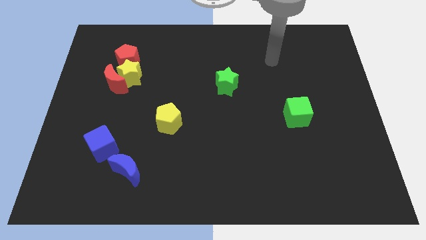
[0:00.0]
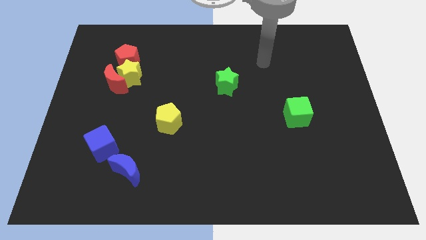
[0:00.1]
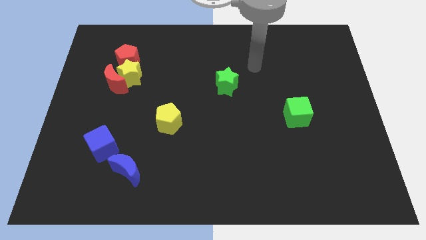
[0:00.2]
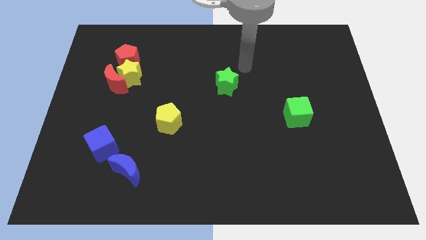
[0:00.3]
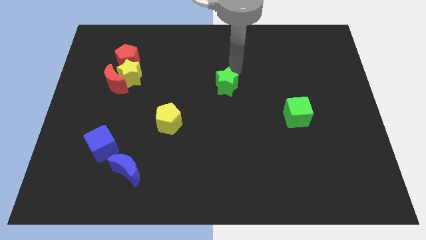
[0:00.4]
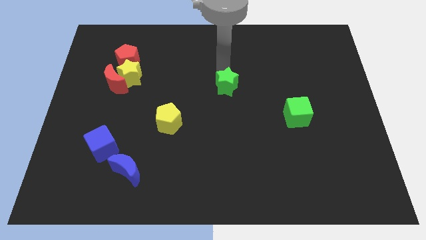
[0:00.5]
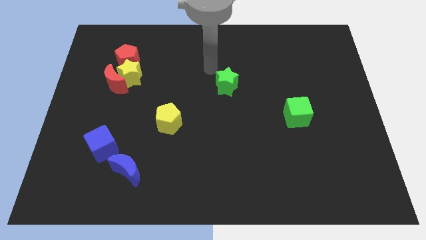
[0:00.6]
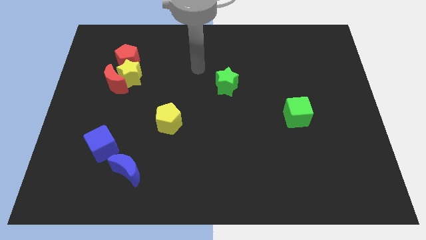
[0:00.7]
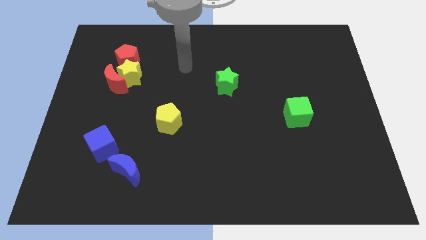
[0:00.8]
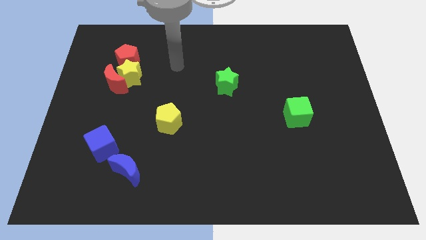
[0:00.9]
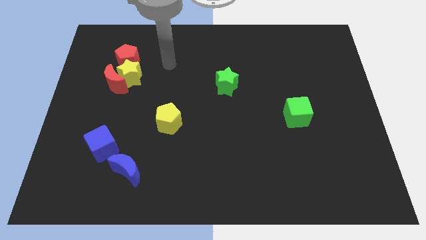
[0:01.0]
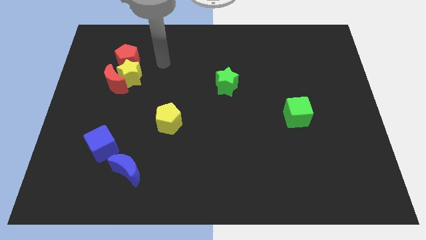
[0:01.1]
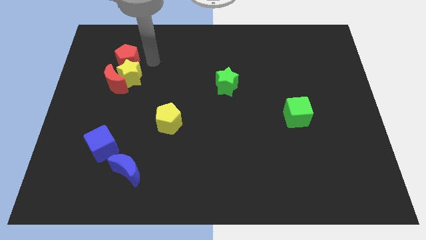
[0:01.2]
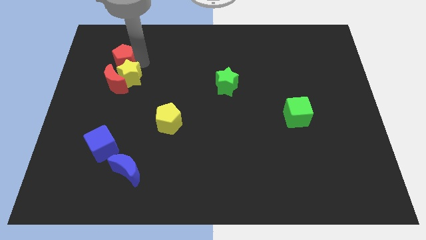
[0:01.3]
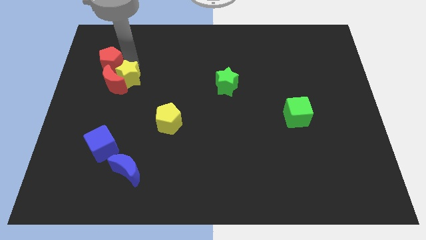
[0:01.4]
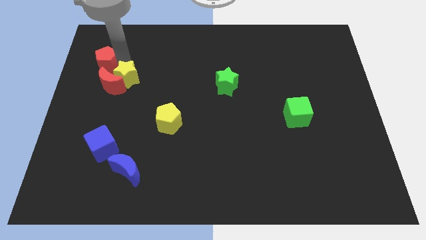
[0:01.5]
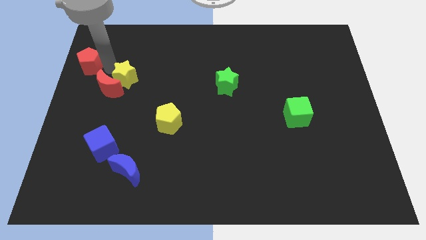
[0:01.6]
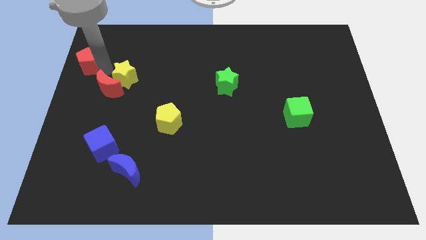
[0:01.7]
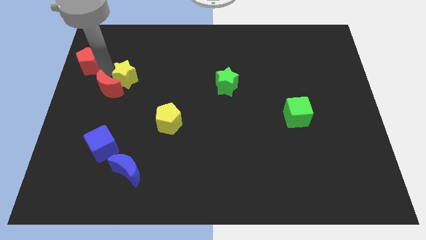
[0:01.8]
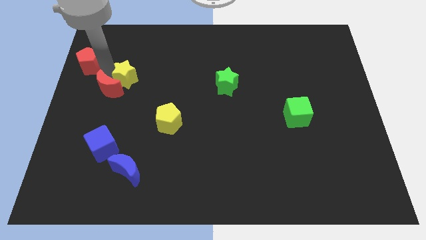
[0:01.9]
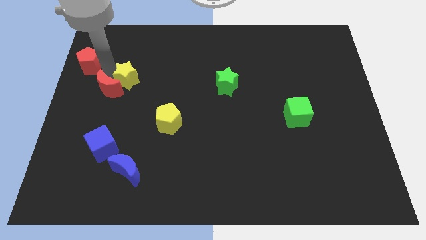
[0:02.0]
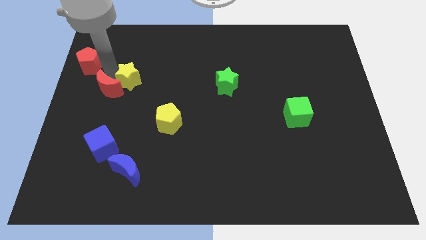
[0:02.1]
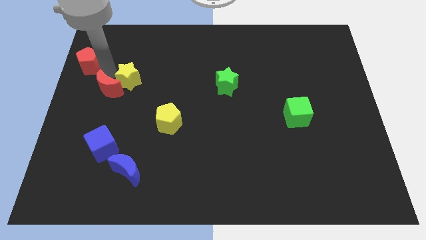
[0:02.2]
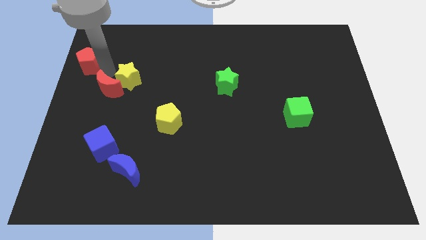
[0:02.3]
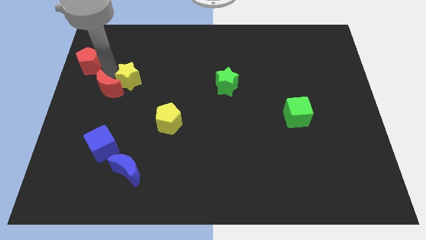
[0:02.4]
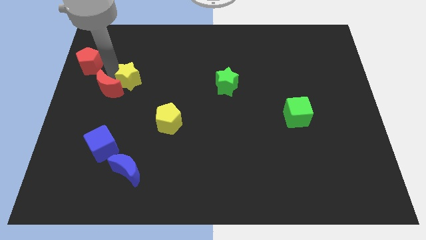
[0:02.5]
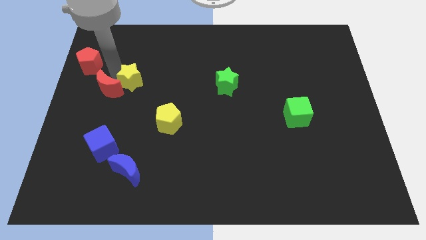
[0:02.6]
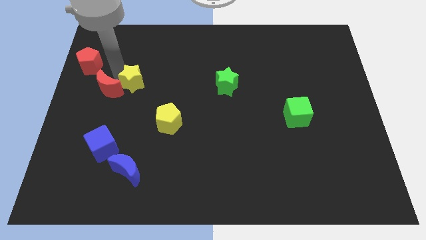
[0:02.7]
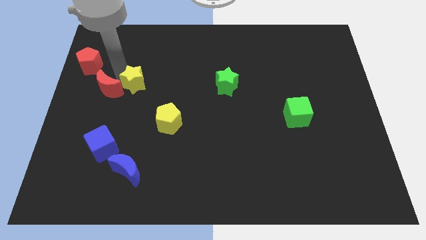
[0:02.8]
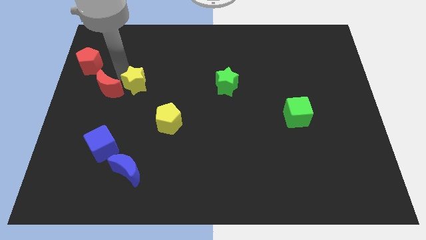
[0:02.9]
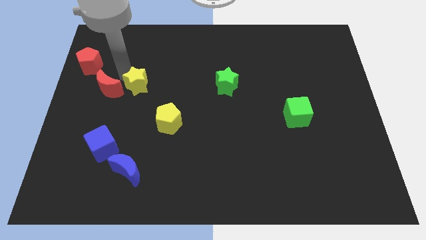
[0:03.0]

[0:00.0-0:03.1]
separate the yellow star from the red moon and red pentagon

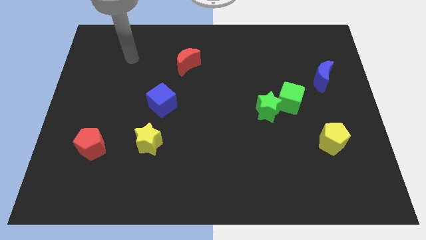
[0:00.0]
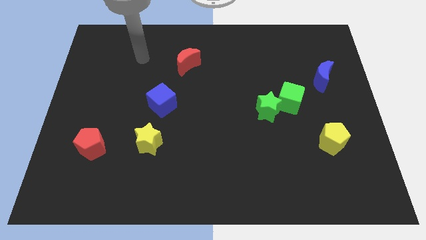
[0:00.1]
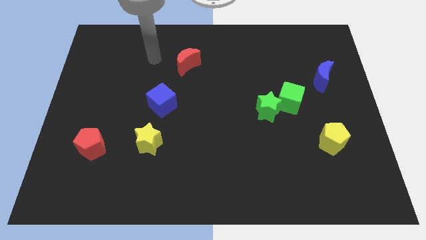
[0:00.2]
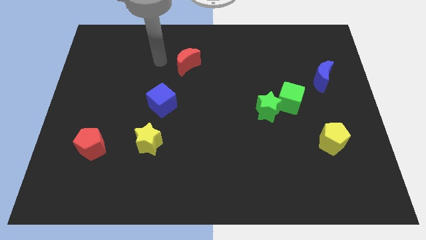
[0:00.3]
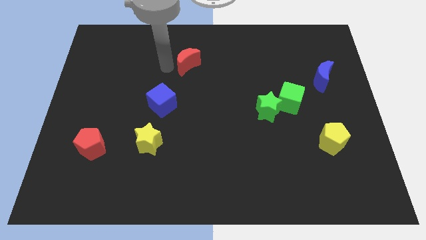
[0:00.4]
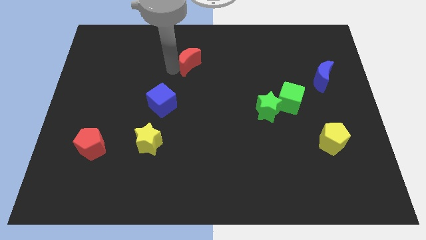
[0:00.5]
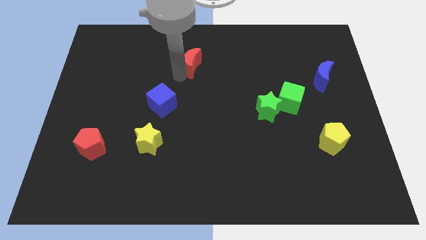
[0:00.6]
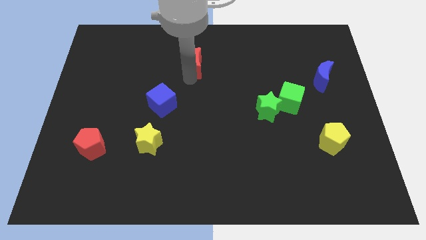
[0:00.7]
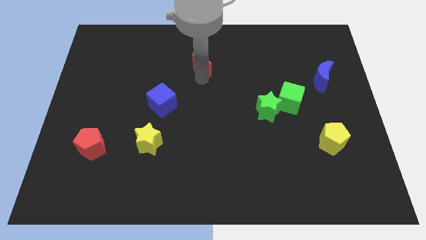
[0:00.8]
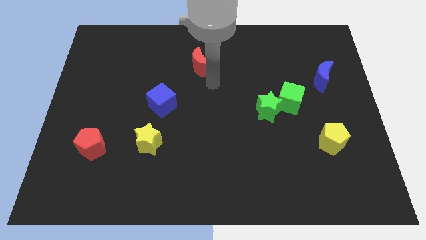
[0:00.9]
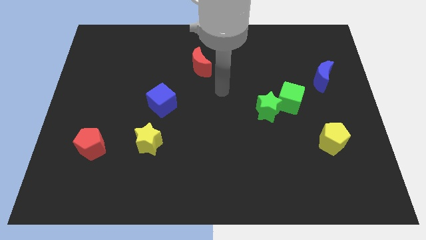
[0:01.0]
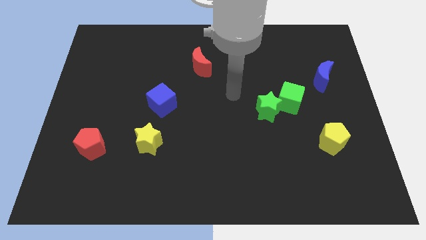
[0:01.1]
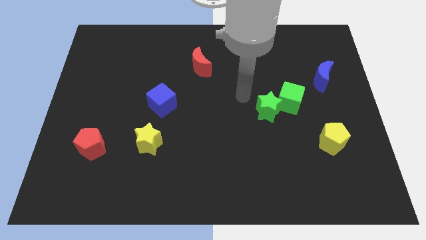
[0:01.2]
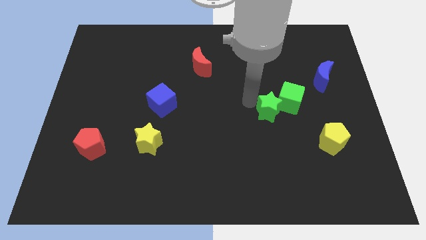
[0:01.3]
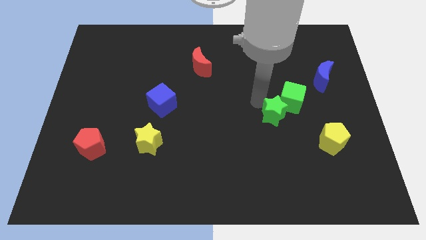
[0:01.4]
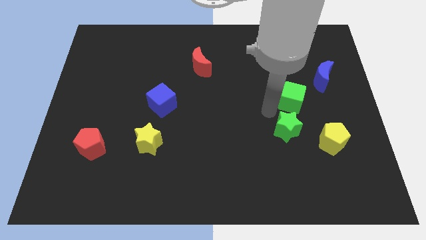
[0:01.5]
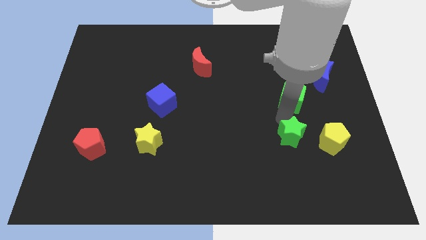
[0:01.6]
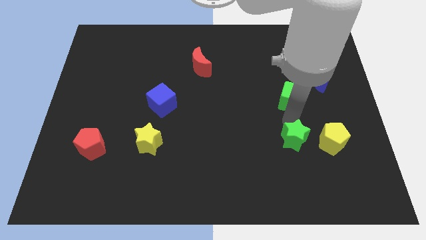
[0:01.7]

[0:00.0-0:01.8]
separate the green cube from the green star

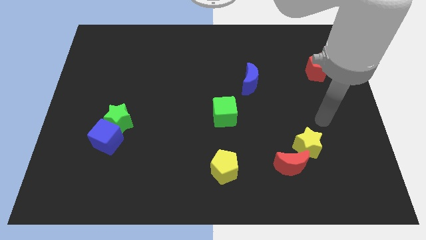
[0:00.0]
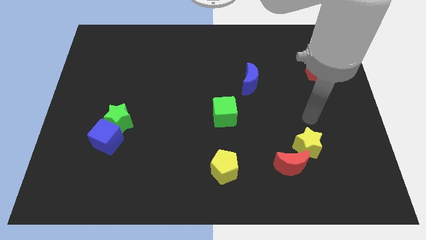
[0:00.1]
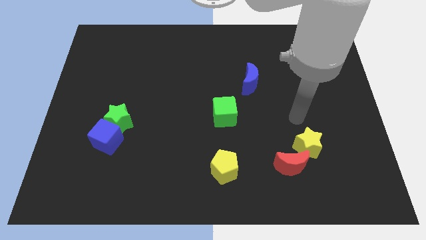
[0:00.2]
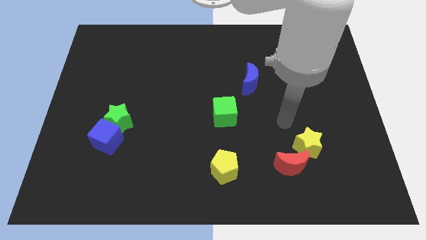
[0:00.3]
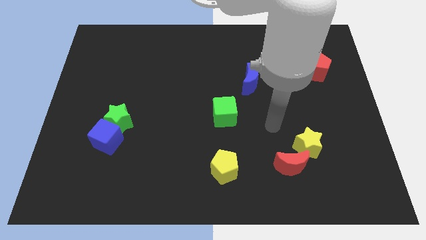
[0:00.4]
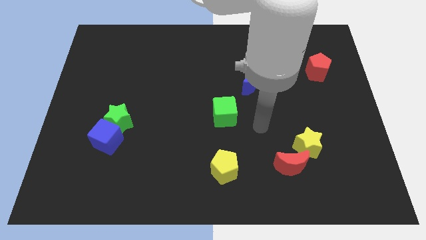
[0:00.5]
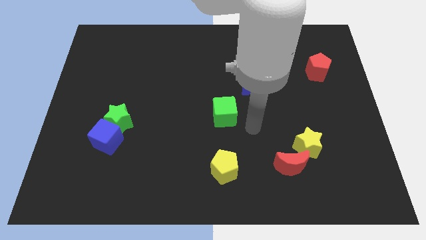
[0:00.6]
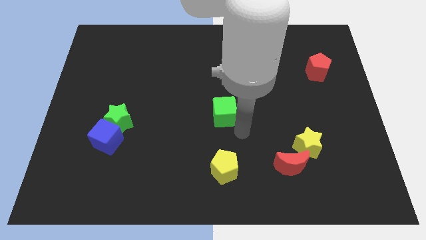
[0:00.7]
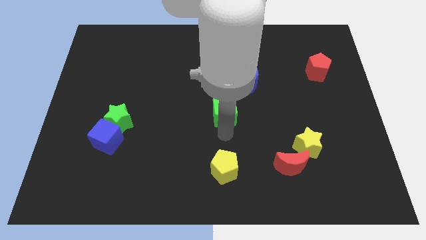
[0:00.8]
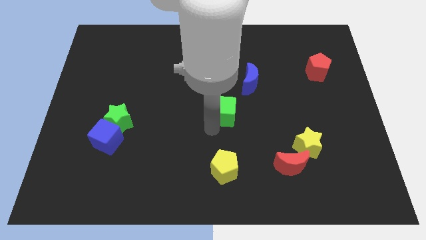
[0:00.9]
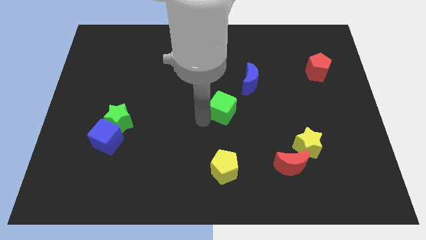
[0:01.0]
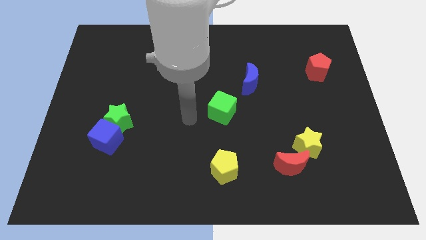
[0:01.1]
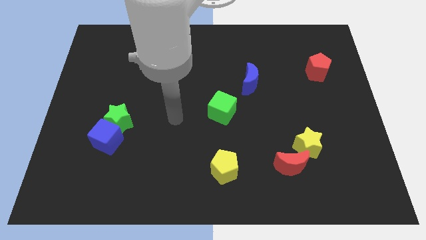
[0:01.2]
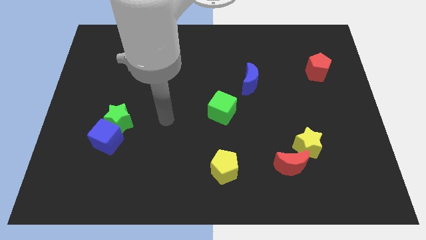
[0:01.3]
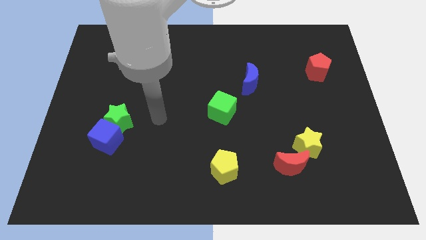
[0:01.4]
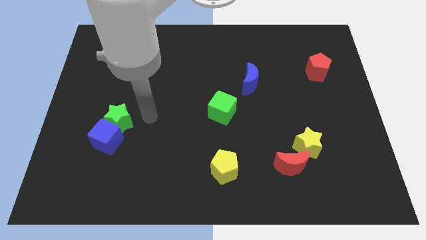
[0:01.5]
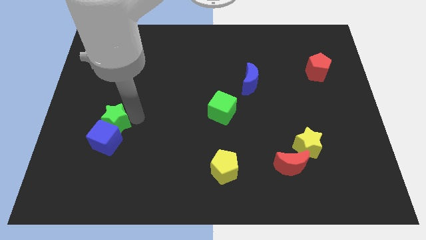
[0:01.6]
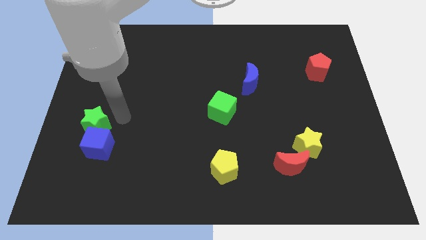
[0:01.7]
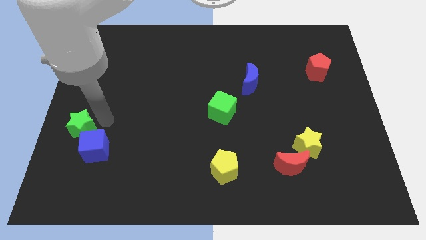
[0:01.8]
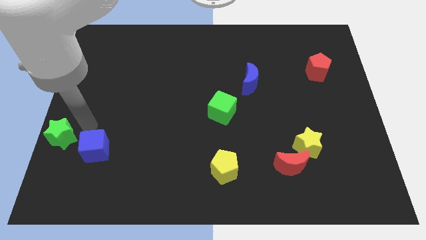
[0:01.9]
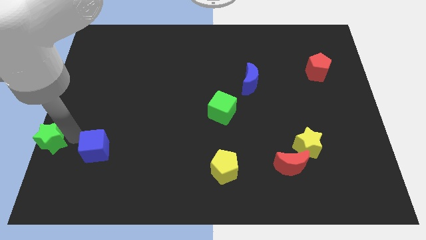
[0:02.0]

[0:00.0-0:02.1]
move the blue cube away from the green star

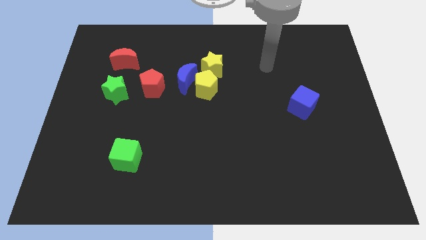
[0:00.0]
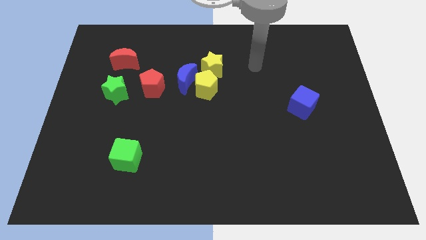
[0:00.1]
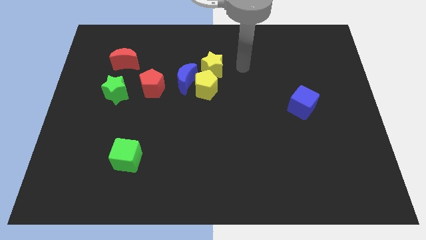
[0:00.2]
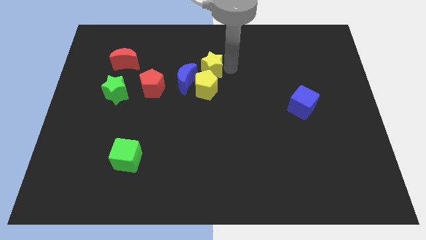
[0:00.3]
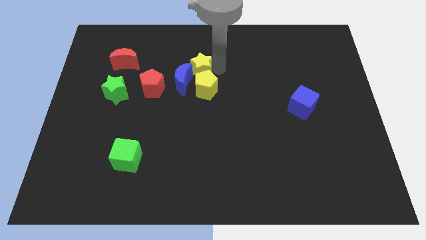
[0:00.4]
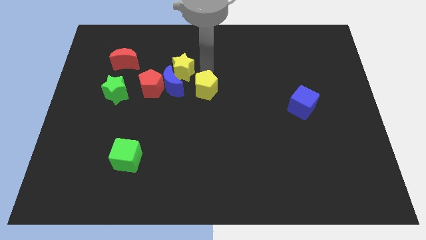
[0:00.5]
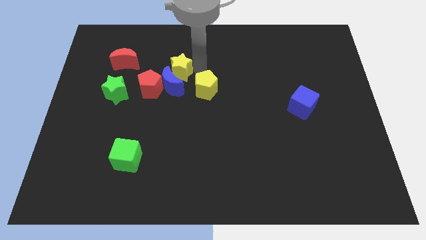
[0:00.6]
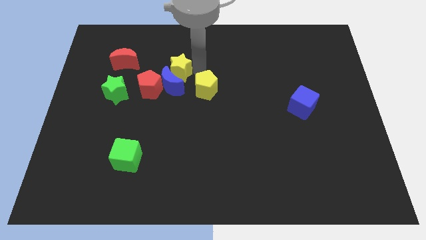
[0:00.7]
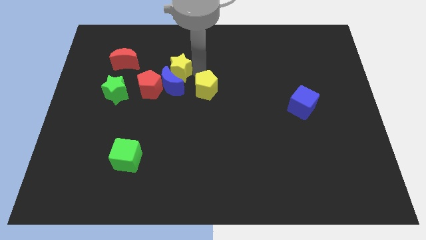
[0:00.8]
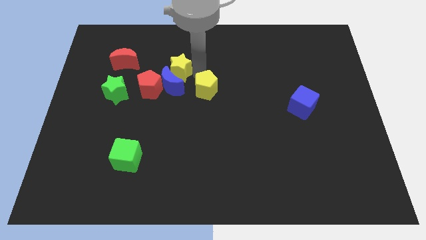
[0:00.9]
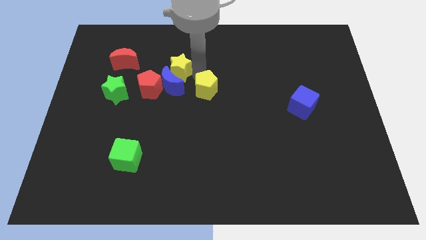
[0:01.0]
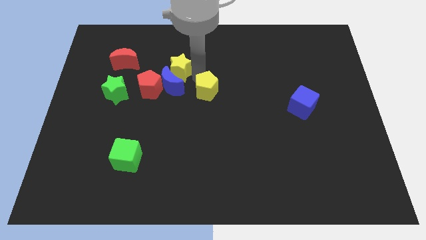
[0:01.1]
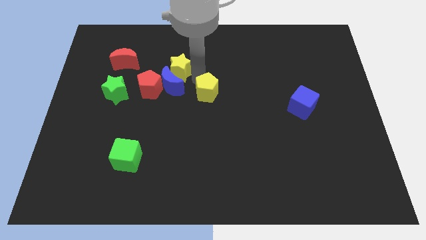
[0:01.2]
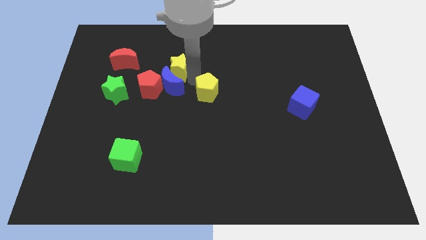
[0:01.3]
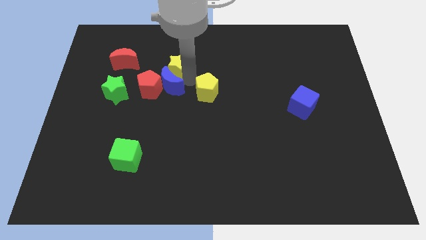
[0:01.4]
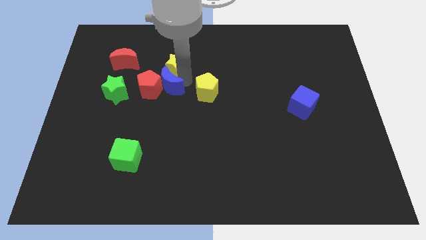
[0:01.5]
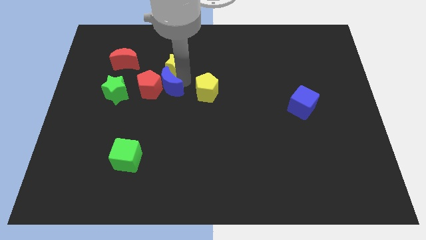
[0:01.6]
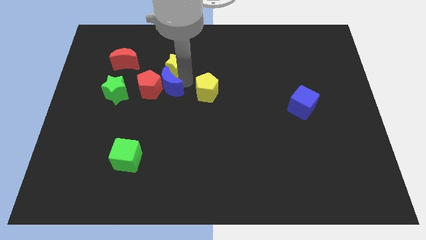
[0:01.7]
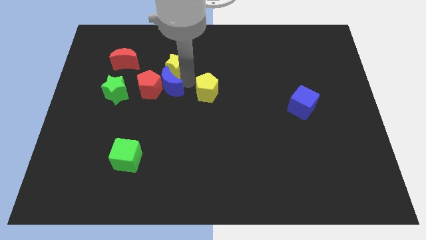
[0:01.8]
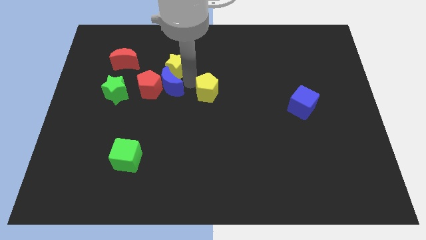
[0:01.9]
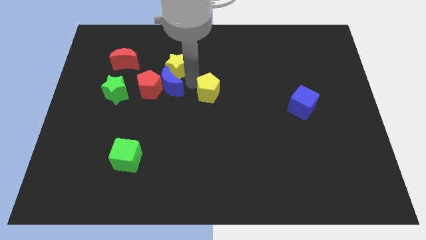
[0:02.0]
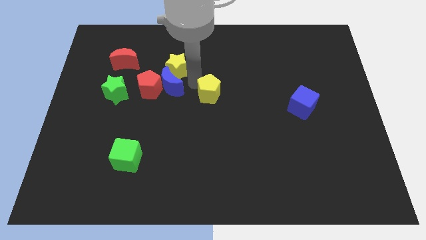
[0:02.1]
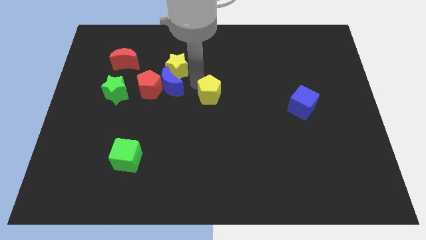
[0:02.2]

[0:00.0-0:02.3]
separate the yellow pentagon from the blue moon and yellow star
